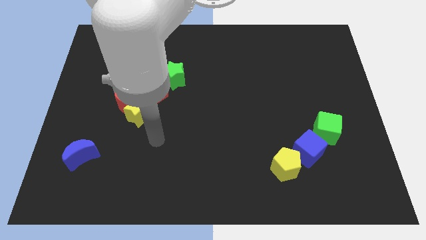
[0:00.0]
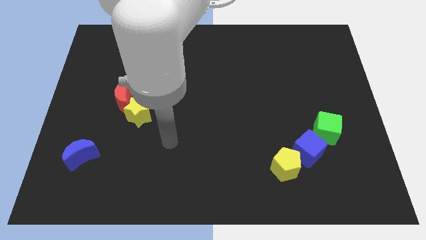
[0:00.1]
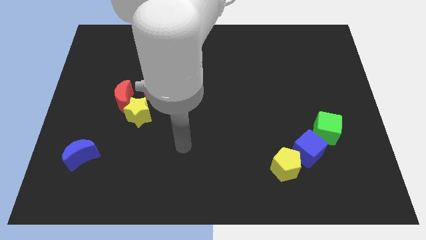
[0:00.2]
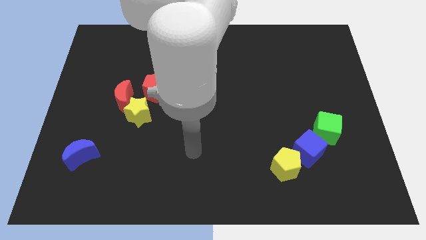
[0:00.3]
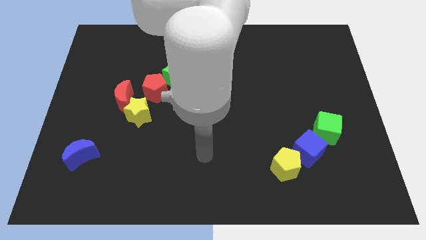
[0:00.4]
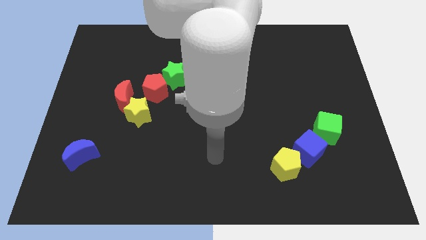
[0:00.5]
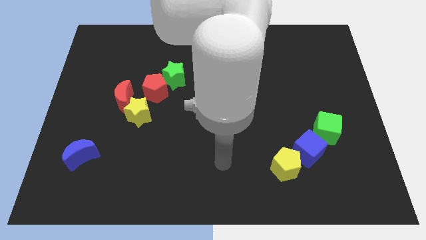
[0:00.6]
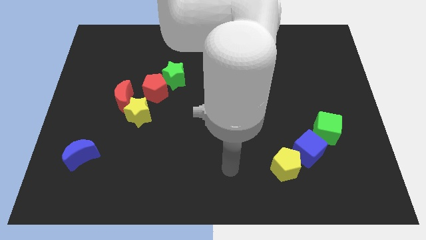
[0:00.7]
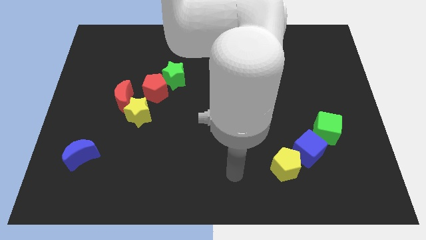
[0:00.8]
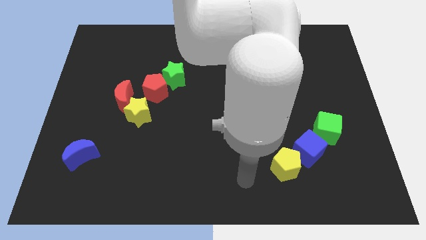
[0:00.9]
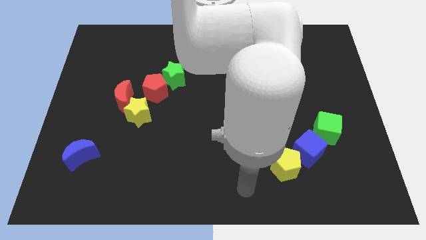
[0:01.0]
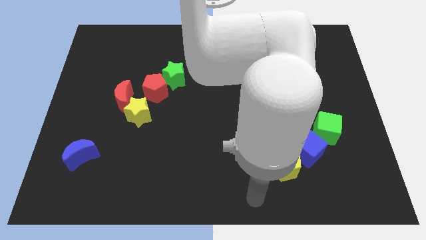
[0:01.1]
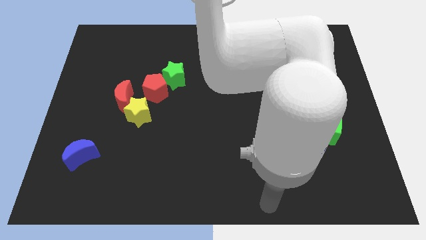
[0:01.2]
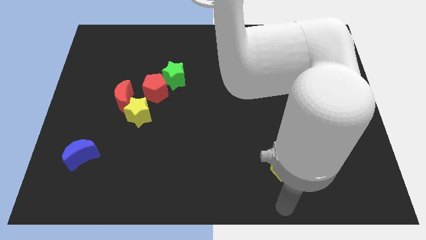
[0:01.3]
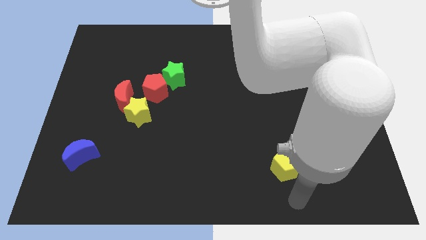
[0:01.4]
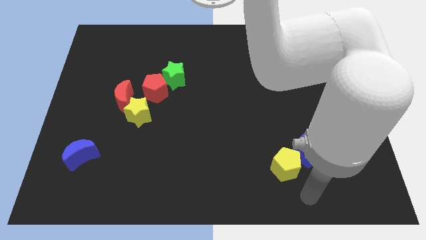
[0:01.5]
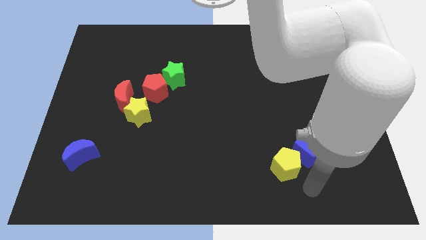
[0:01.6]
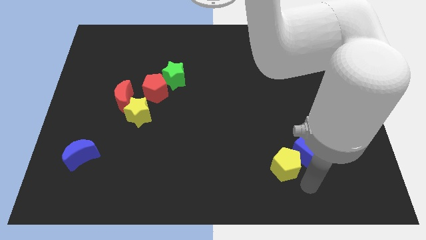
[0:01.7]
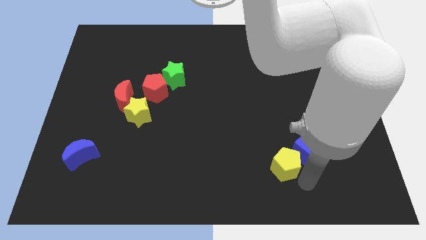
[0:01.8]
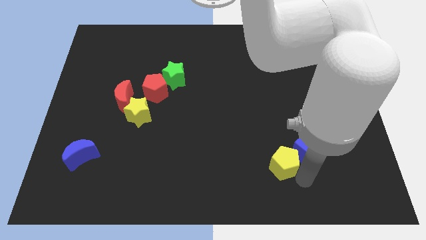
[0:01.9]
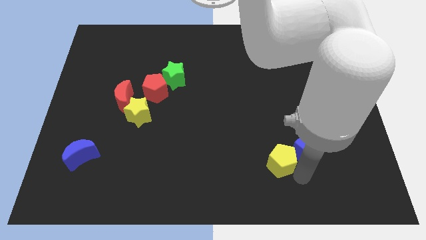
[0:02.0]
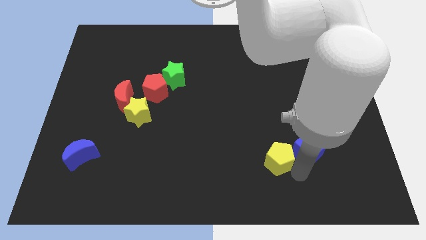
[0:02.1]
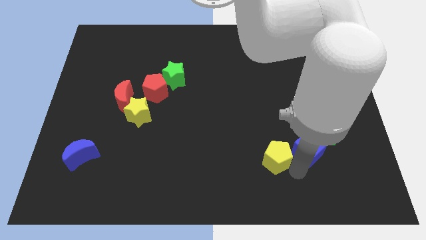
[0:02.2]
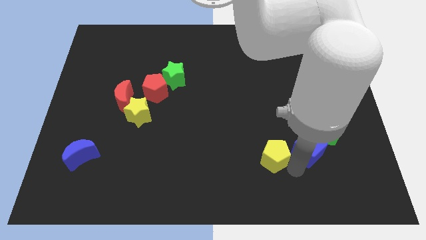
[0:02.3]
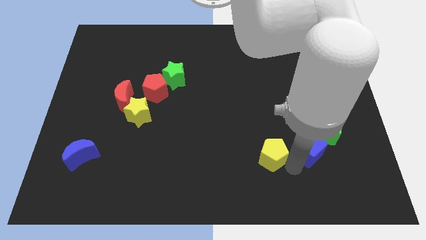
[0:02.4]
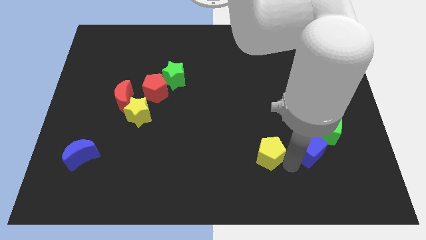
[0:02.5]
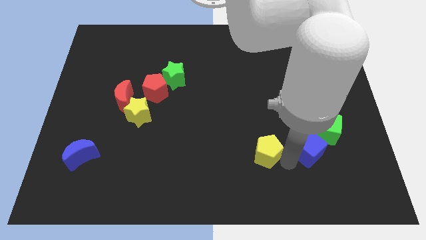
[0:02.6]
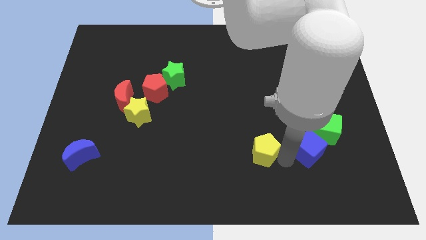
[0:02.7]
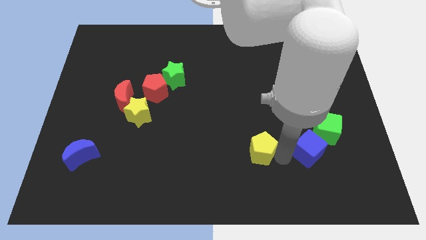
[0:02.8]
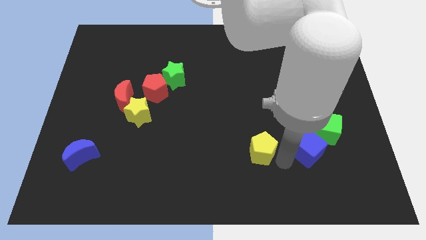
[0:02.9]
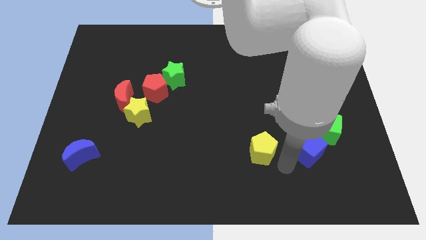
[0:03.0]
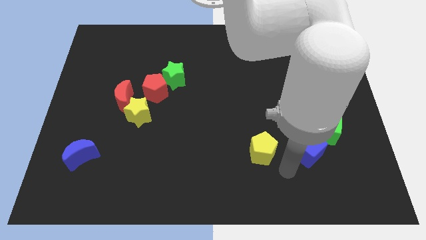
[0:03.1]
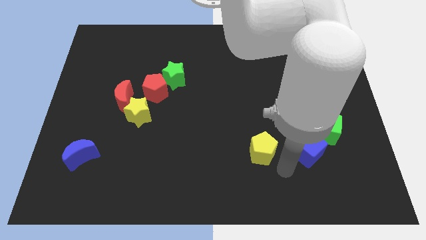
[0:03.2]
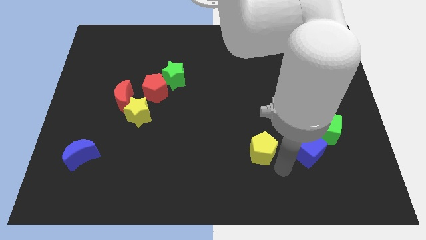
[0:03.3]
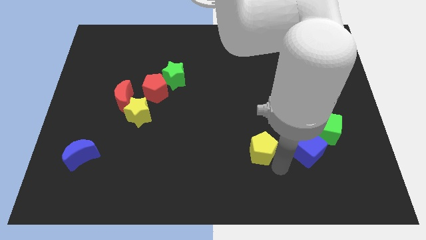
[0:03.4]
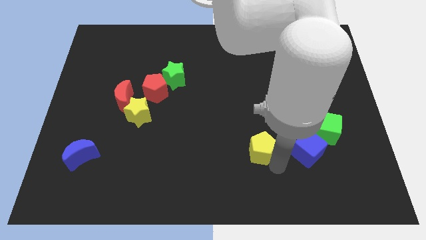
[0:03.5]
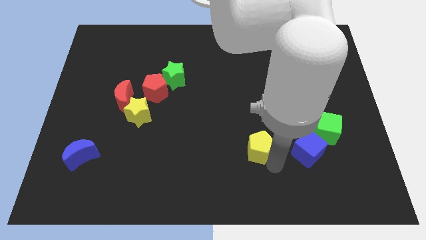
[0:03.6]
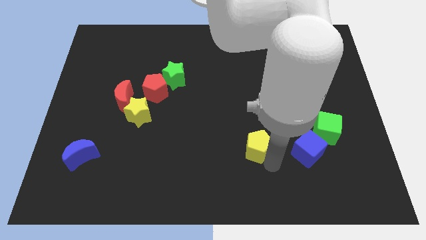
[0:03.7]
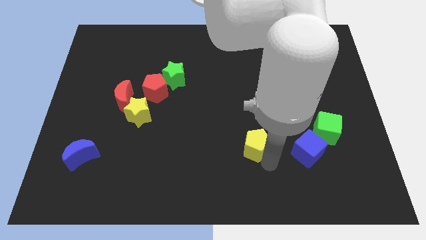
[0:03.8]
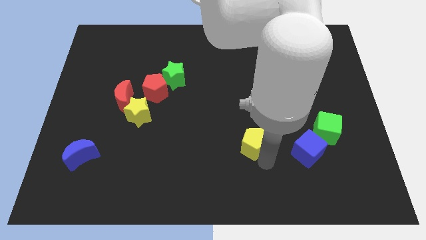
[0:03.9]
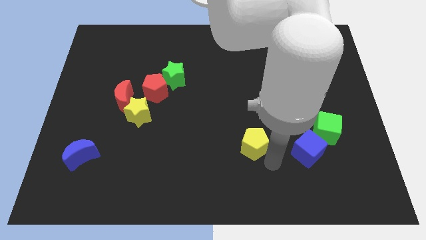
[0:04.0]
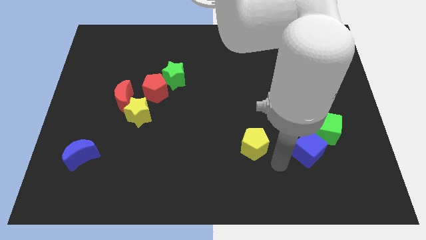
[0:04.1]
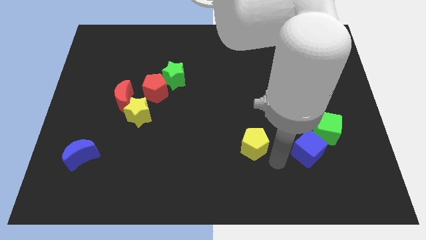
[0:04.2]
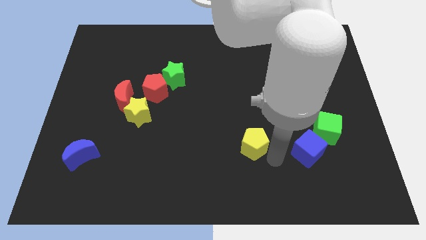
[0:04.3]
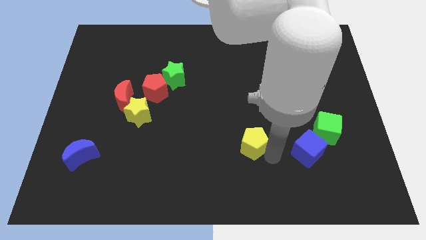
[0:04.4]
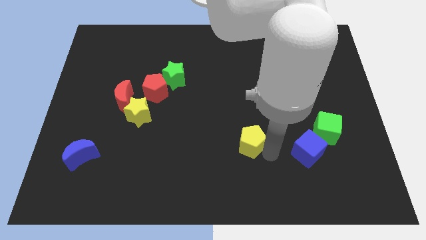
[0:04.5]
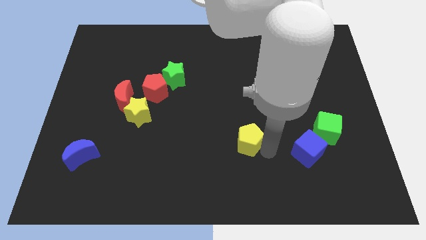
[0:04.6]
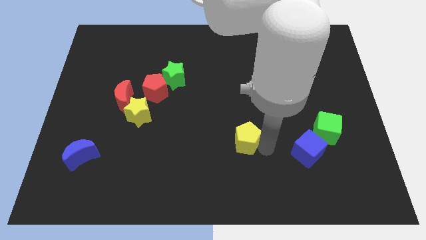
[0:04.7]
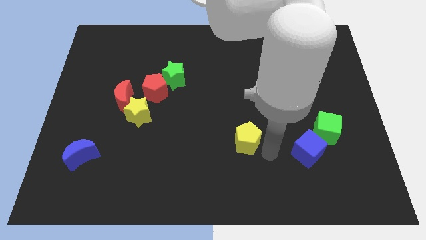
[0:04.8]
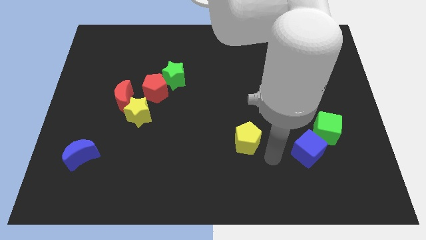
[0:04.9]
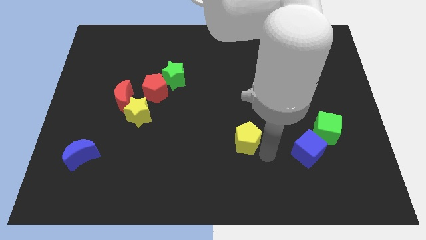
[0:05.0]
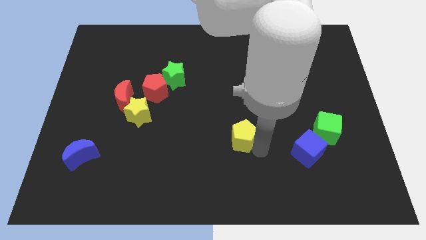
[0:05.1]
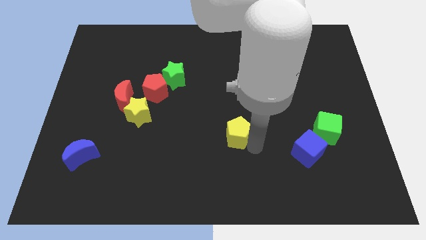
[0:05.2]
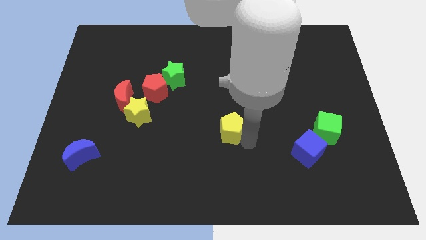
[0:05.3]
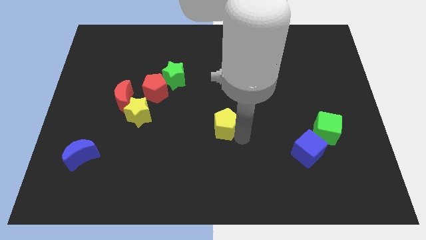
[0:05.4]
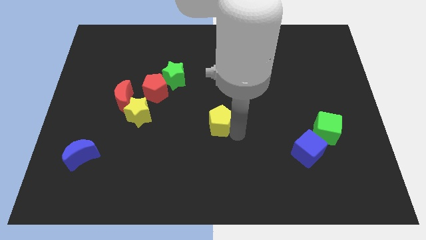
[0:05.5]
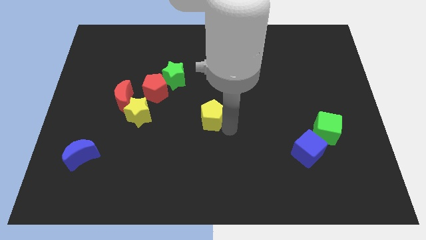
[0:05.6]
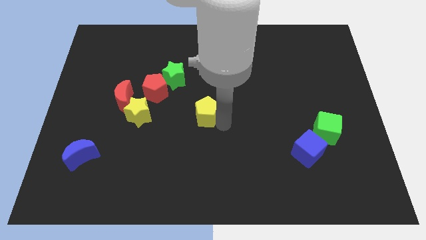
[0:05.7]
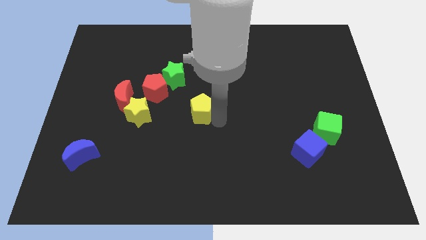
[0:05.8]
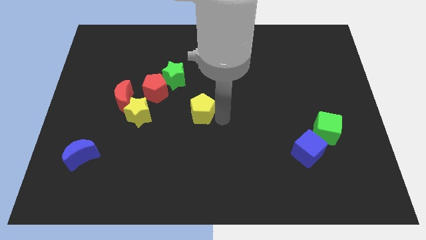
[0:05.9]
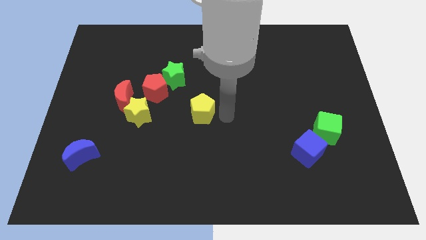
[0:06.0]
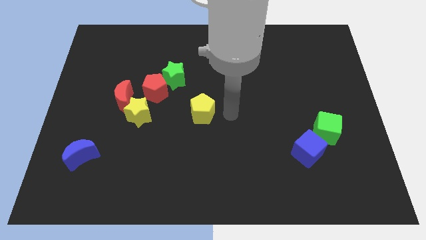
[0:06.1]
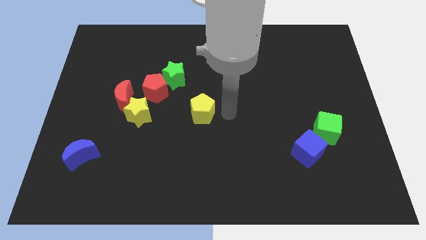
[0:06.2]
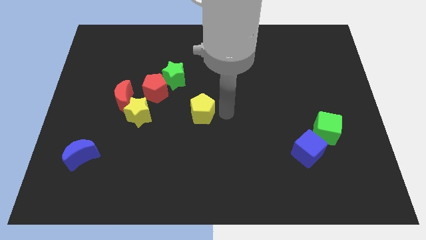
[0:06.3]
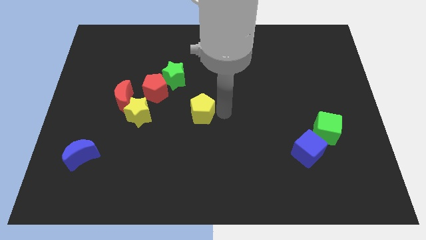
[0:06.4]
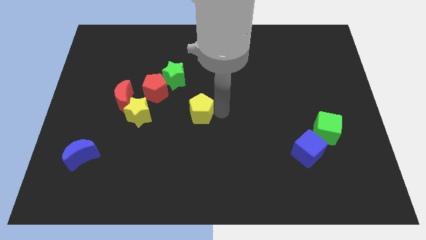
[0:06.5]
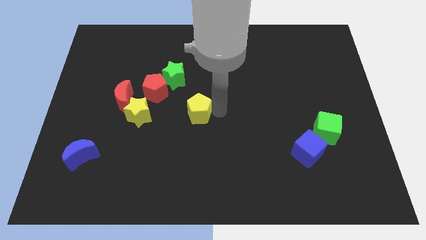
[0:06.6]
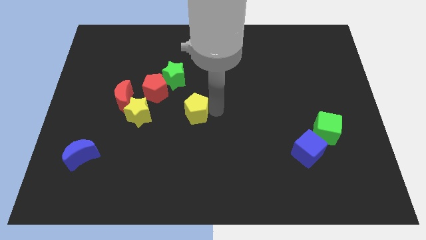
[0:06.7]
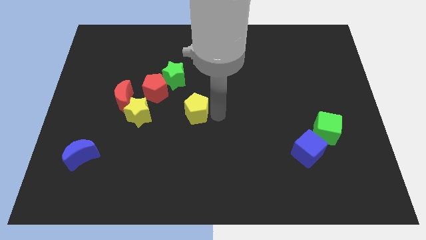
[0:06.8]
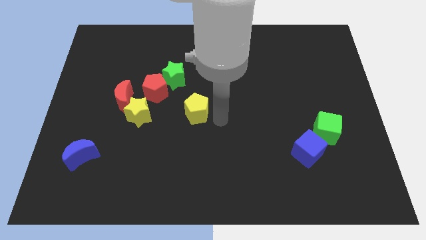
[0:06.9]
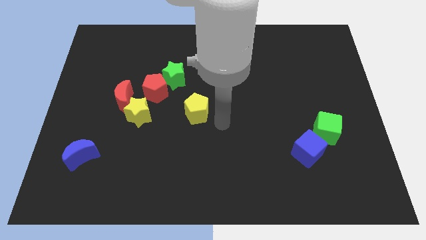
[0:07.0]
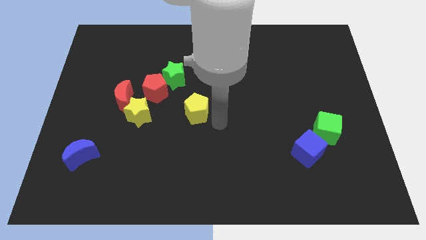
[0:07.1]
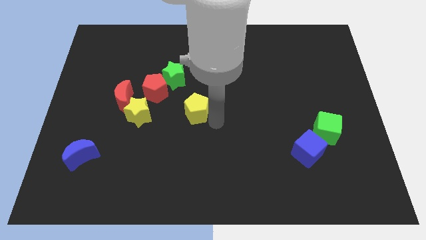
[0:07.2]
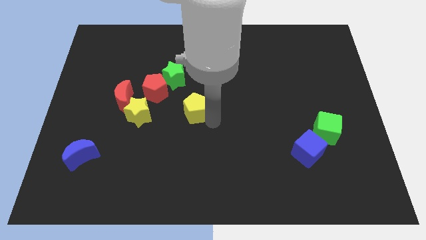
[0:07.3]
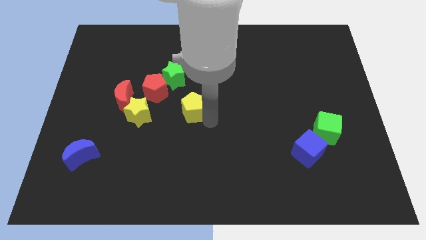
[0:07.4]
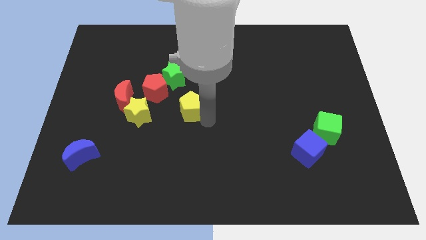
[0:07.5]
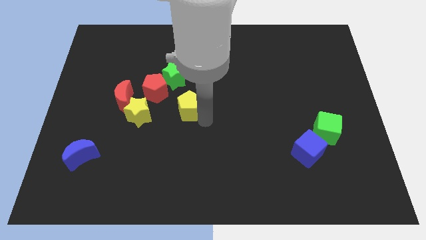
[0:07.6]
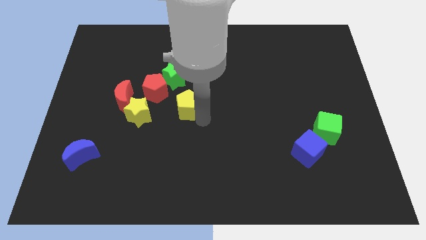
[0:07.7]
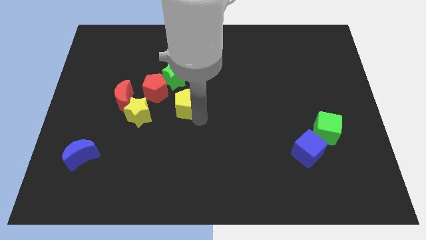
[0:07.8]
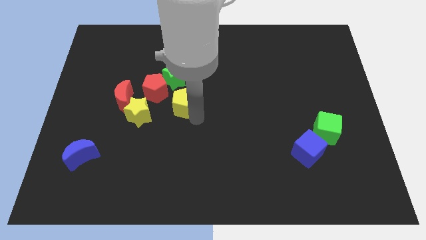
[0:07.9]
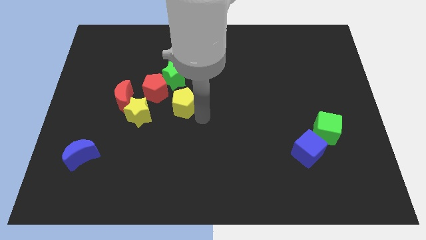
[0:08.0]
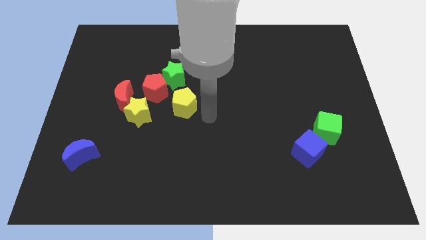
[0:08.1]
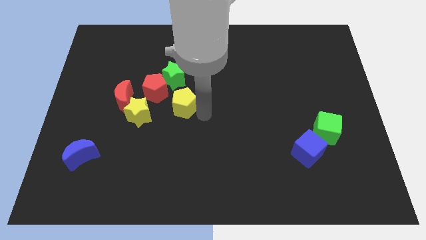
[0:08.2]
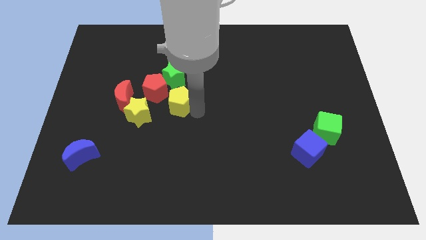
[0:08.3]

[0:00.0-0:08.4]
put the yellow pentagon to the top right of the yellow star
